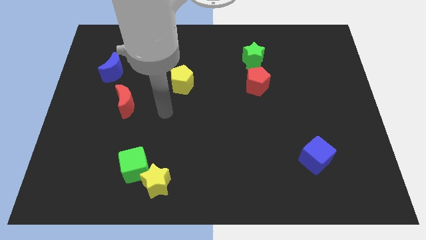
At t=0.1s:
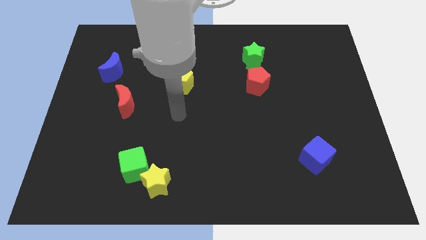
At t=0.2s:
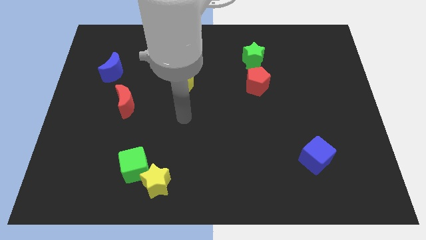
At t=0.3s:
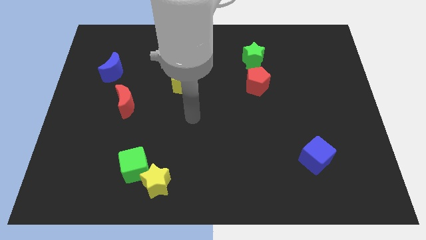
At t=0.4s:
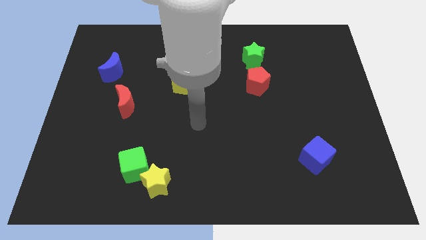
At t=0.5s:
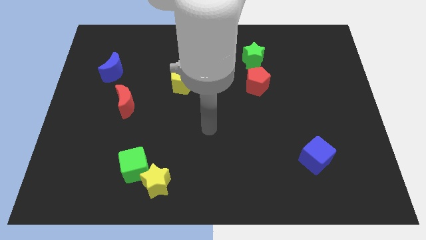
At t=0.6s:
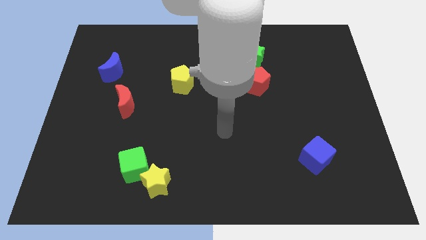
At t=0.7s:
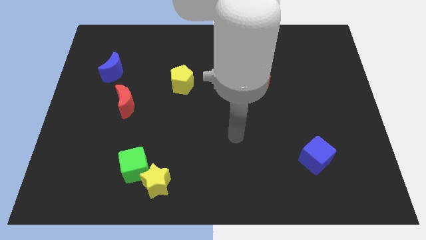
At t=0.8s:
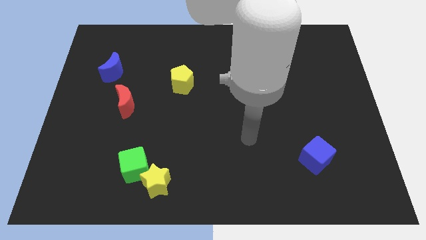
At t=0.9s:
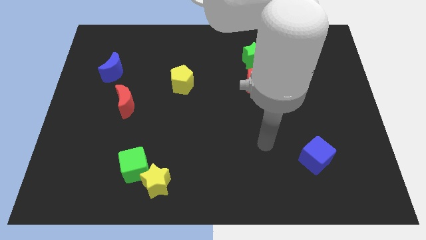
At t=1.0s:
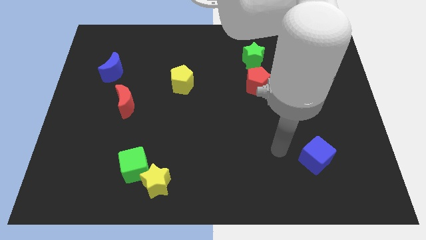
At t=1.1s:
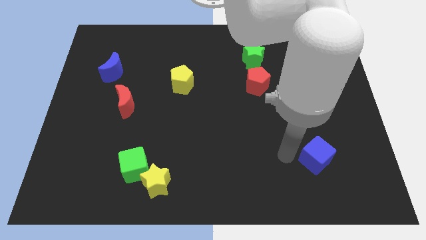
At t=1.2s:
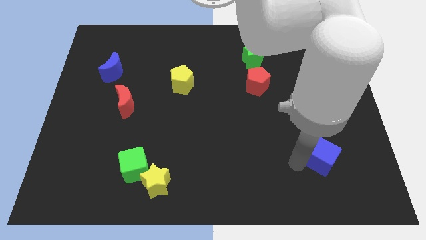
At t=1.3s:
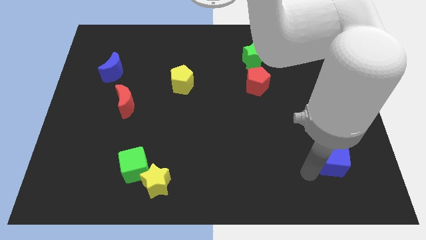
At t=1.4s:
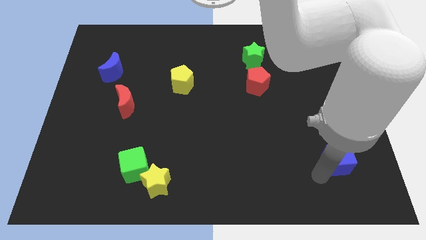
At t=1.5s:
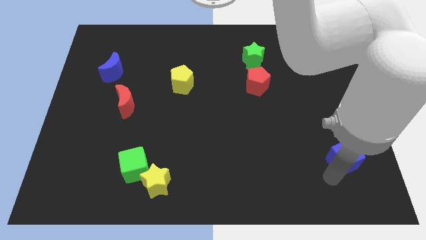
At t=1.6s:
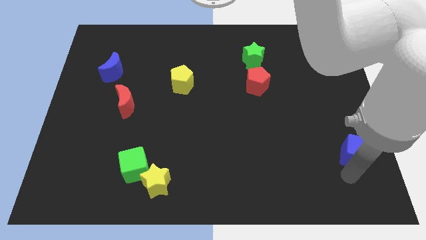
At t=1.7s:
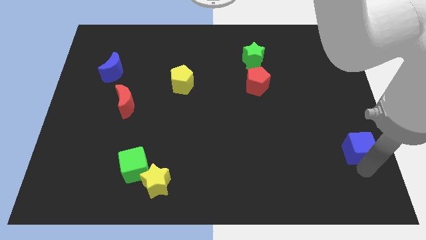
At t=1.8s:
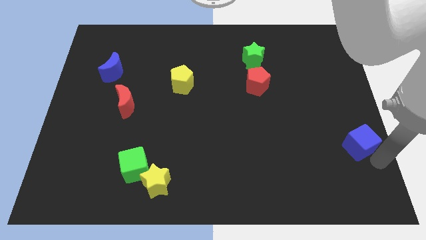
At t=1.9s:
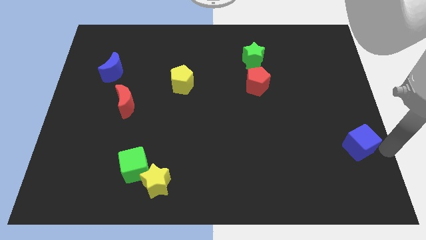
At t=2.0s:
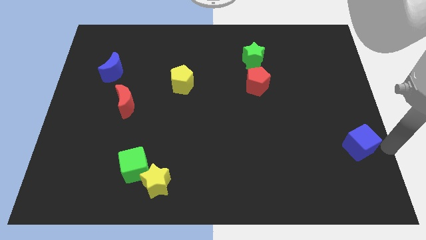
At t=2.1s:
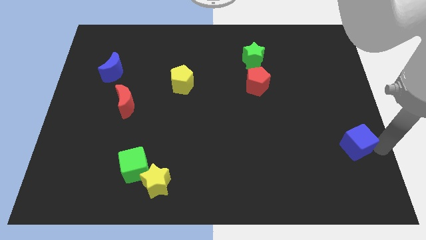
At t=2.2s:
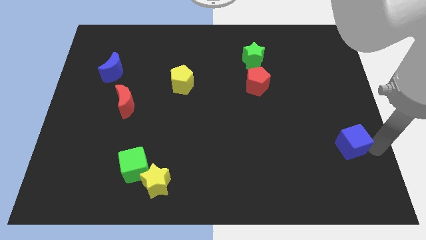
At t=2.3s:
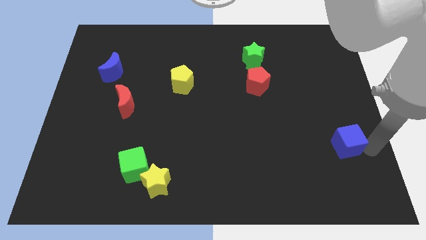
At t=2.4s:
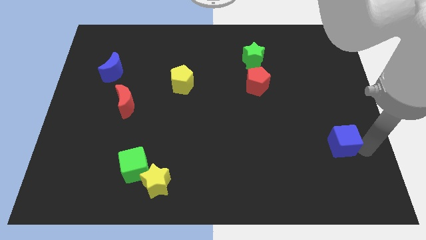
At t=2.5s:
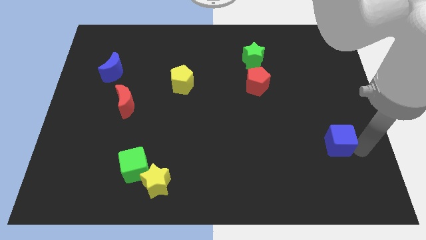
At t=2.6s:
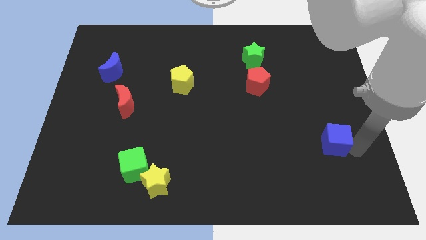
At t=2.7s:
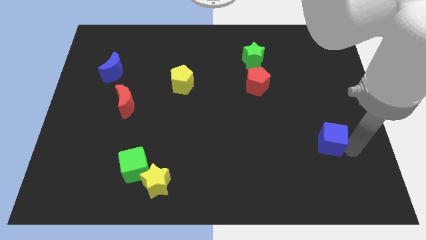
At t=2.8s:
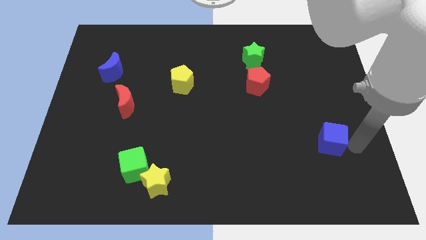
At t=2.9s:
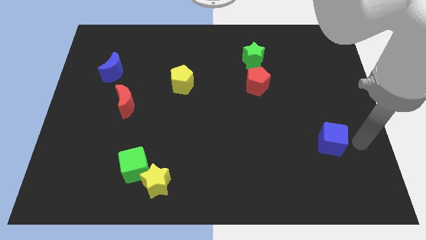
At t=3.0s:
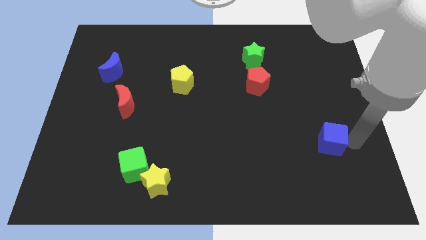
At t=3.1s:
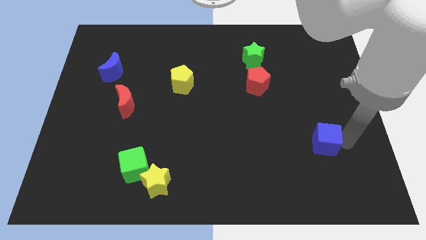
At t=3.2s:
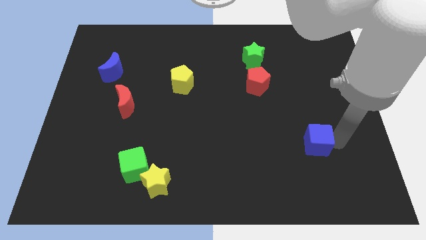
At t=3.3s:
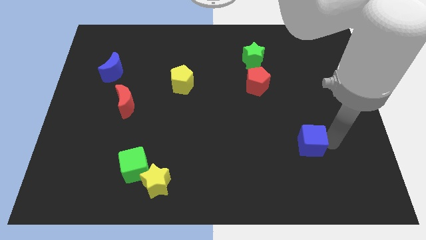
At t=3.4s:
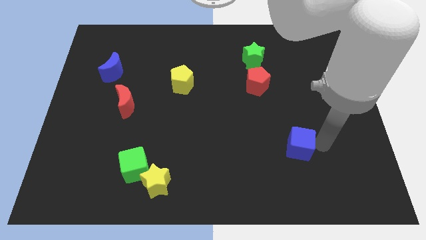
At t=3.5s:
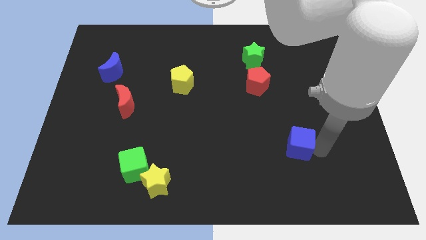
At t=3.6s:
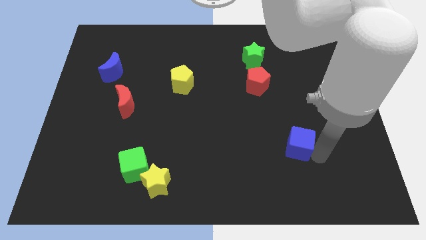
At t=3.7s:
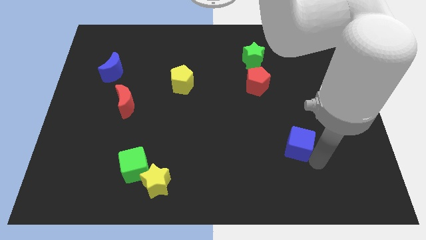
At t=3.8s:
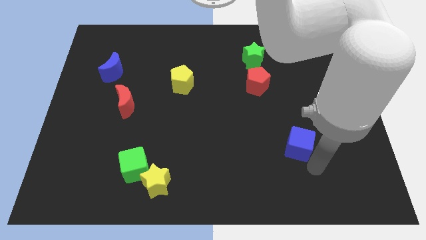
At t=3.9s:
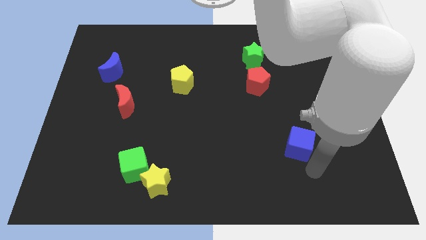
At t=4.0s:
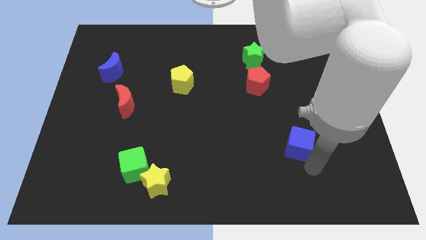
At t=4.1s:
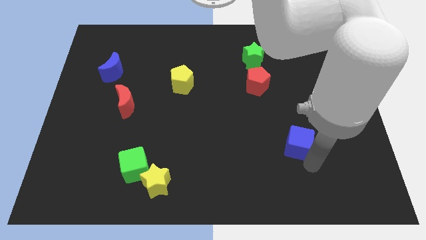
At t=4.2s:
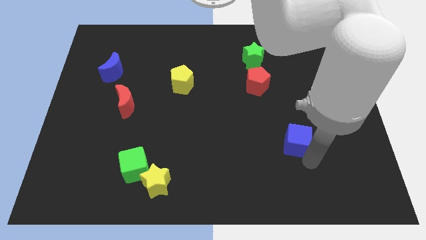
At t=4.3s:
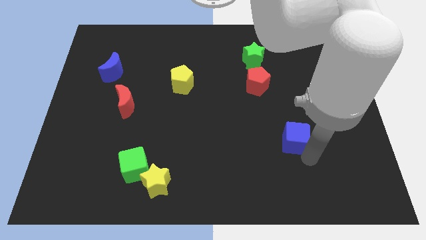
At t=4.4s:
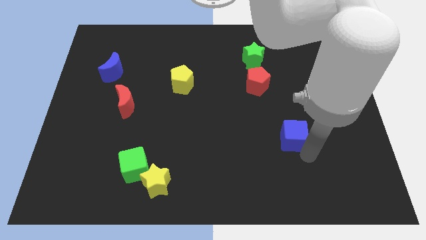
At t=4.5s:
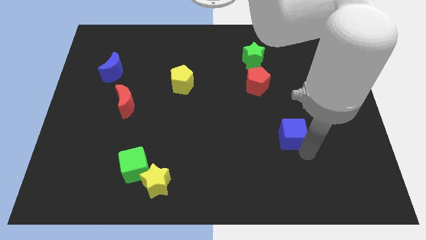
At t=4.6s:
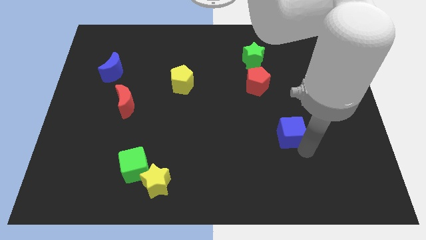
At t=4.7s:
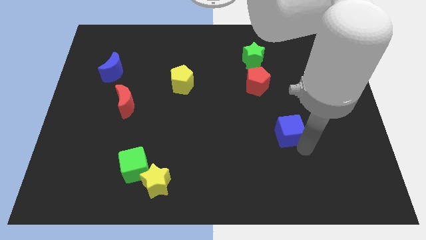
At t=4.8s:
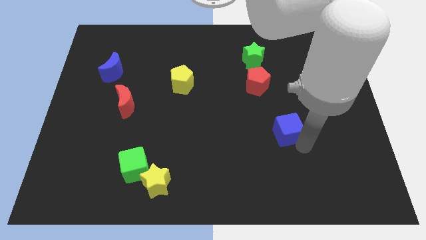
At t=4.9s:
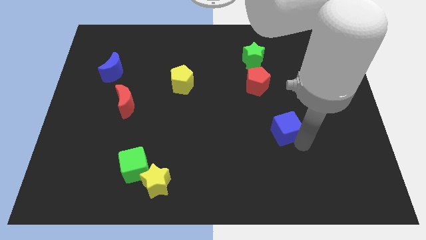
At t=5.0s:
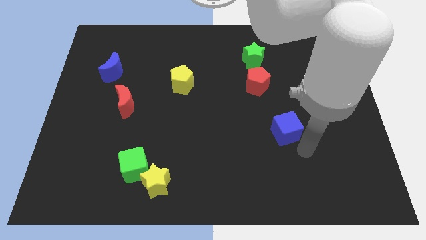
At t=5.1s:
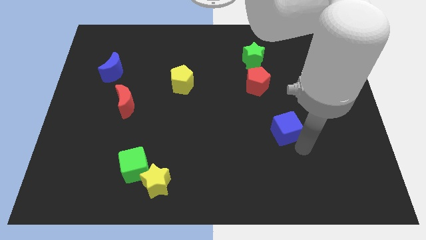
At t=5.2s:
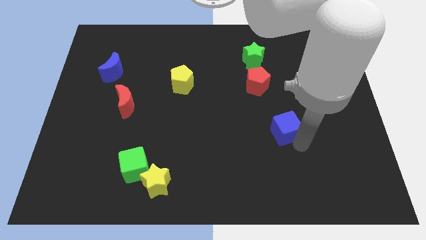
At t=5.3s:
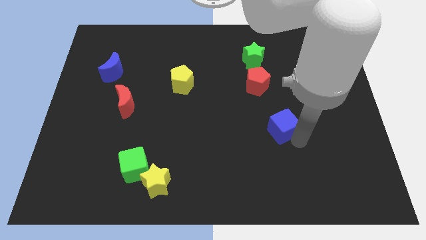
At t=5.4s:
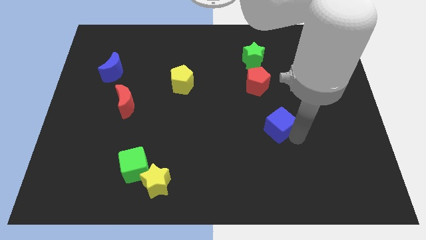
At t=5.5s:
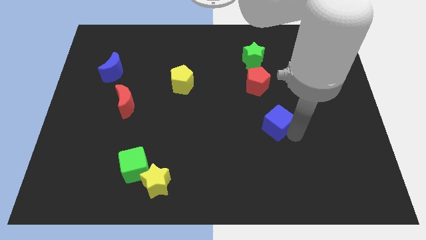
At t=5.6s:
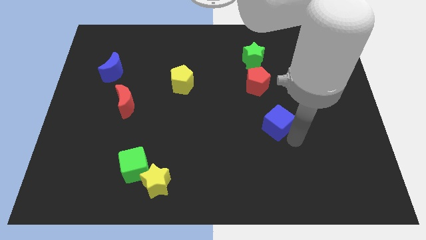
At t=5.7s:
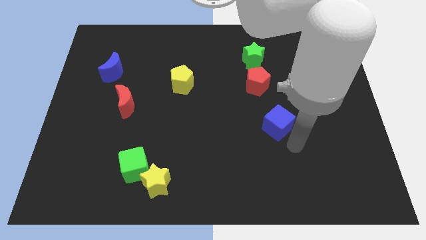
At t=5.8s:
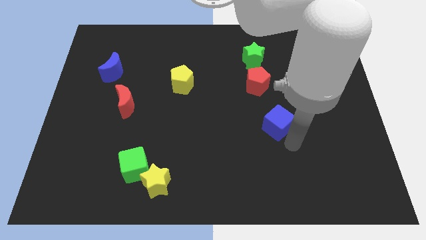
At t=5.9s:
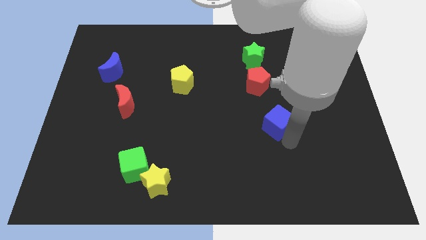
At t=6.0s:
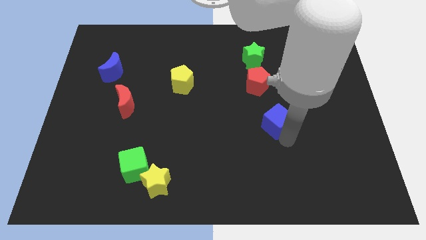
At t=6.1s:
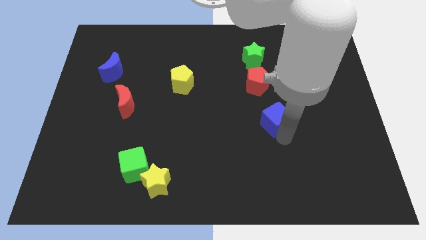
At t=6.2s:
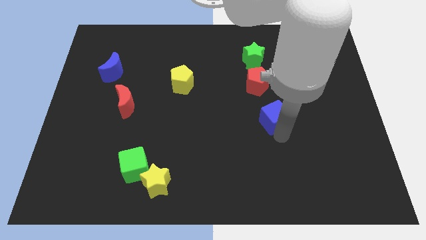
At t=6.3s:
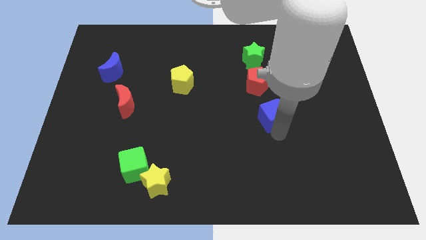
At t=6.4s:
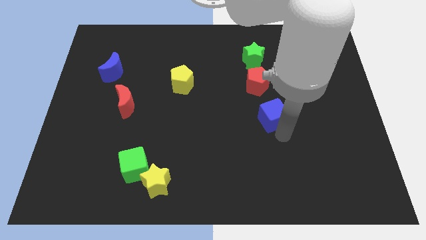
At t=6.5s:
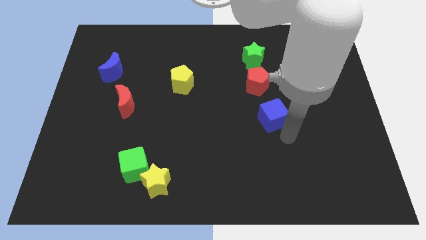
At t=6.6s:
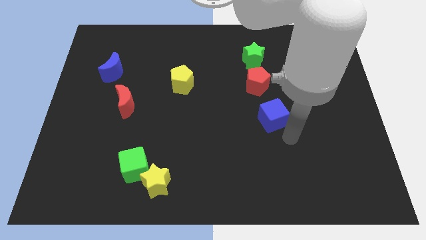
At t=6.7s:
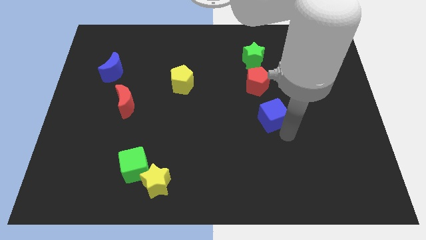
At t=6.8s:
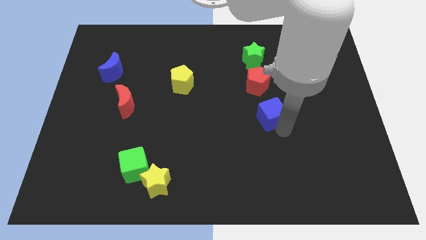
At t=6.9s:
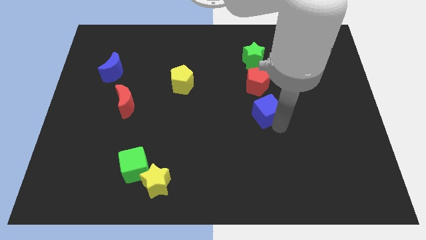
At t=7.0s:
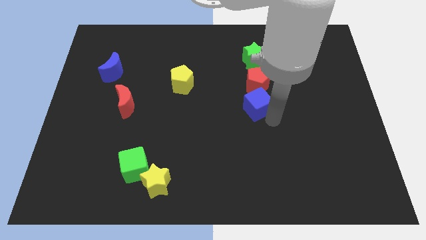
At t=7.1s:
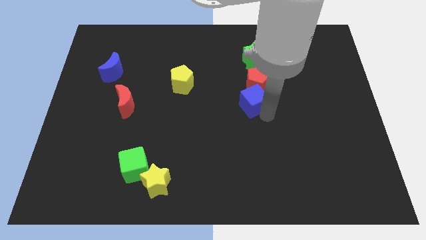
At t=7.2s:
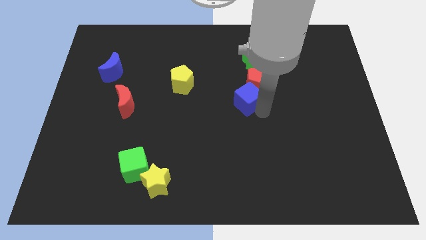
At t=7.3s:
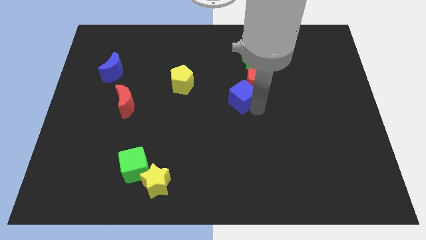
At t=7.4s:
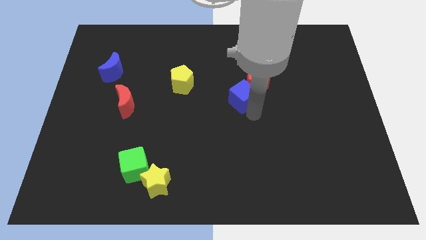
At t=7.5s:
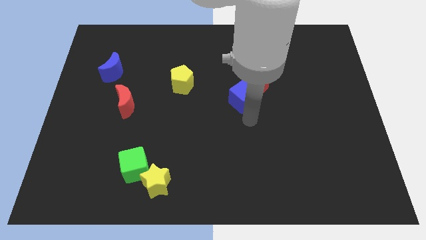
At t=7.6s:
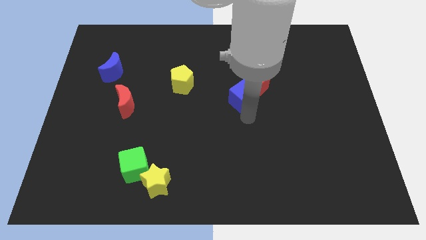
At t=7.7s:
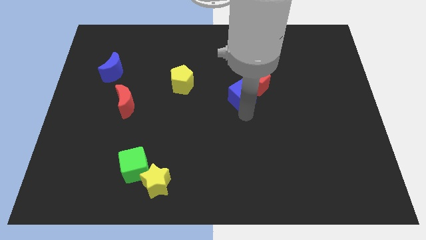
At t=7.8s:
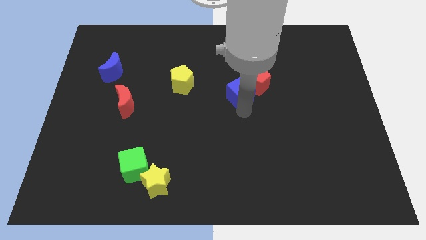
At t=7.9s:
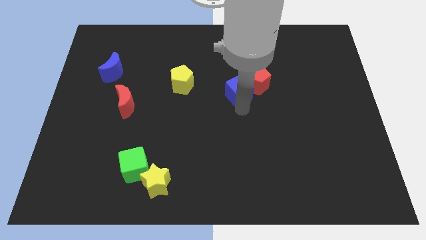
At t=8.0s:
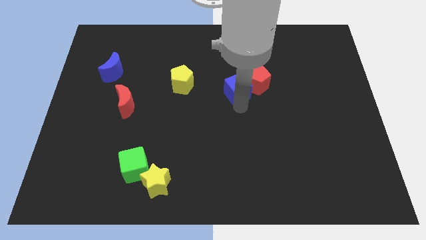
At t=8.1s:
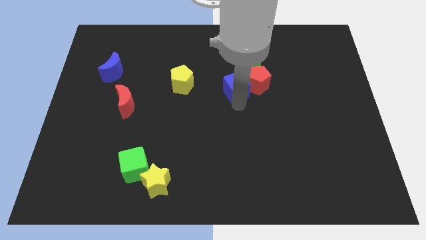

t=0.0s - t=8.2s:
move the blue cube diagonally down and to the left of the green star
